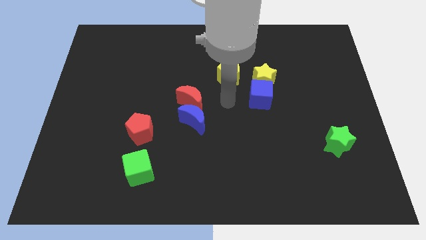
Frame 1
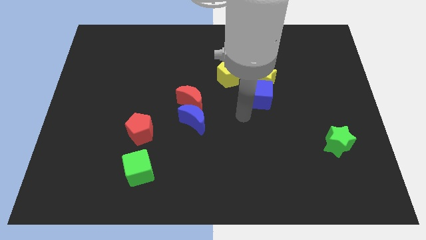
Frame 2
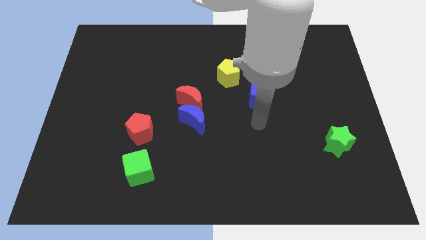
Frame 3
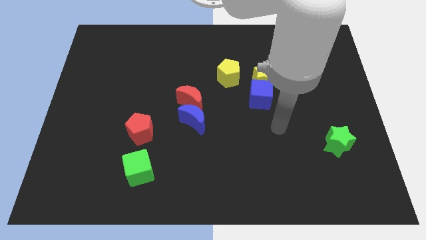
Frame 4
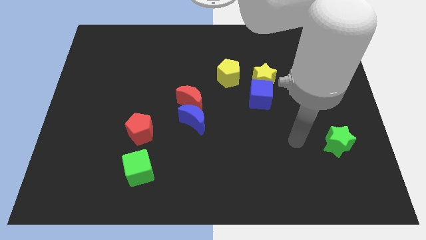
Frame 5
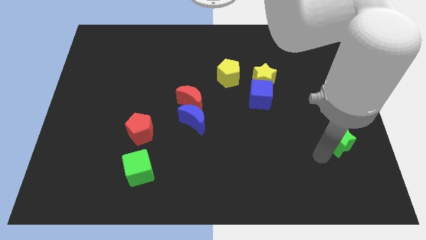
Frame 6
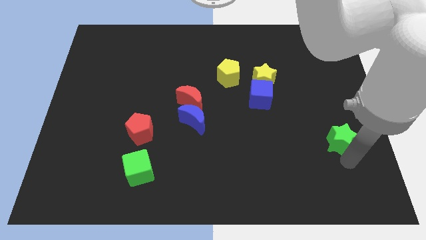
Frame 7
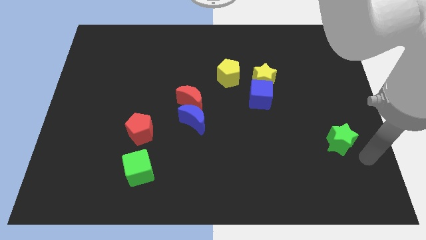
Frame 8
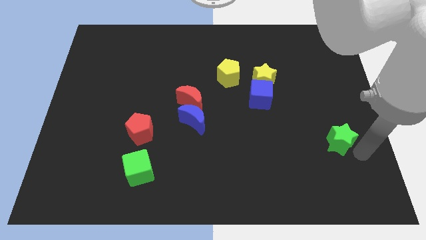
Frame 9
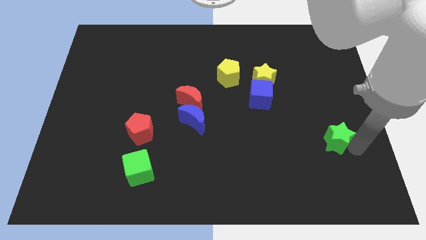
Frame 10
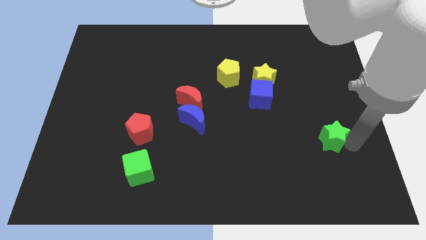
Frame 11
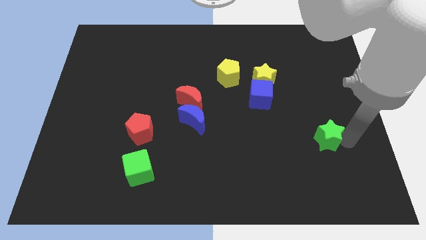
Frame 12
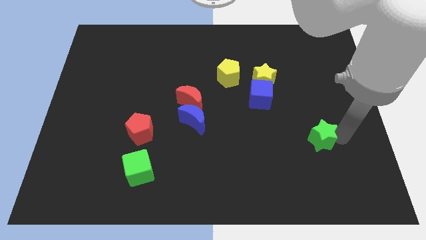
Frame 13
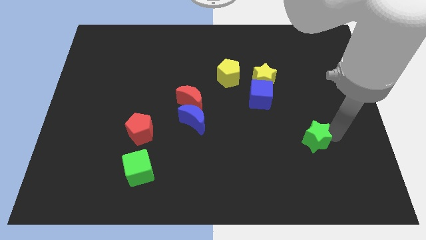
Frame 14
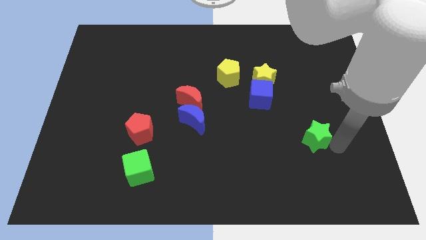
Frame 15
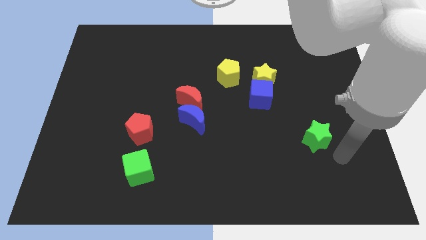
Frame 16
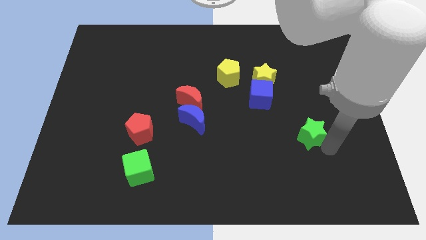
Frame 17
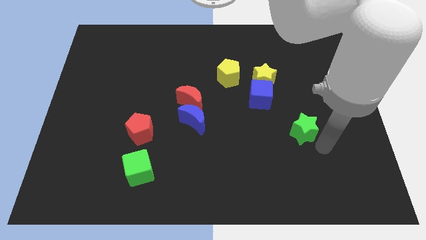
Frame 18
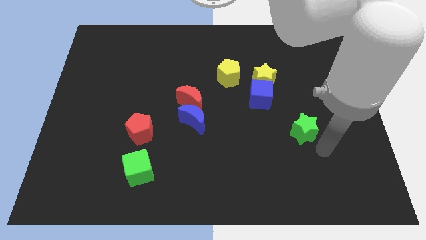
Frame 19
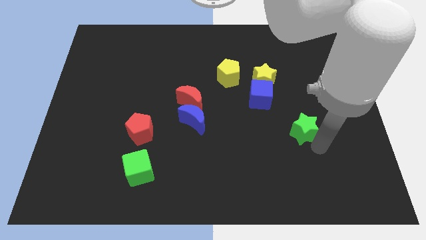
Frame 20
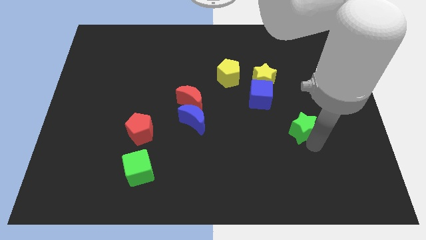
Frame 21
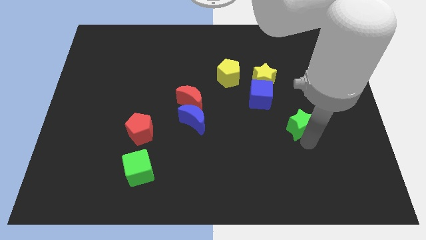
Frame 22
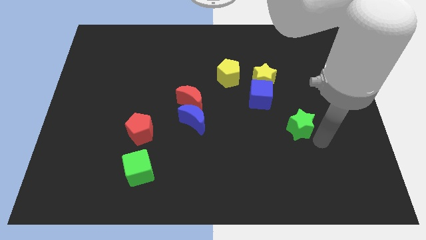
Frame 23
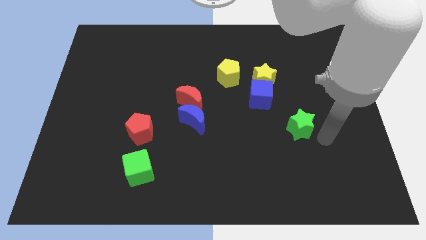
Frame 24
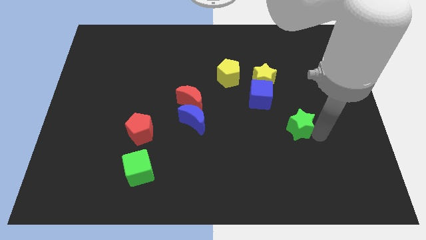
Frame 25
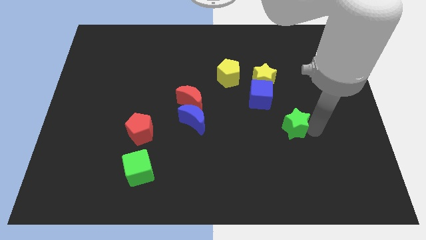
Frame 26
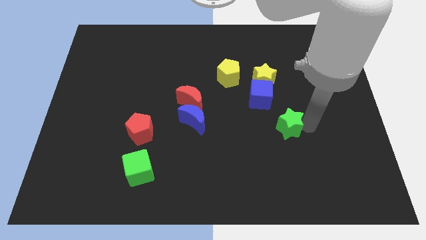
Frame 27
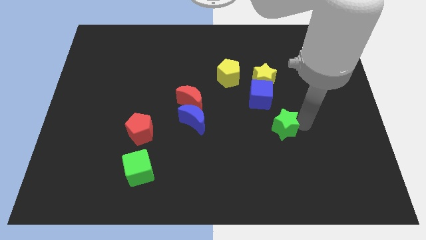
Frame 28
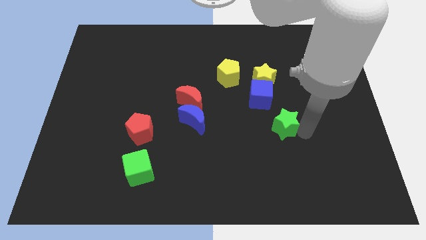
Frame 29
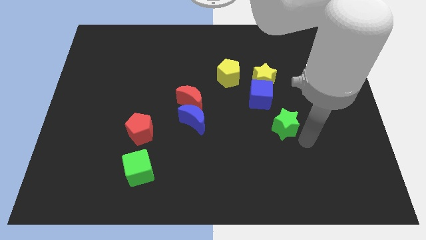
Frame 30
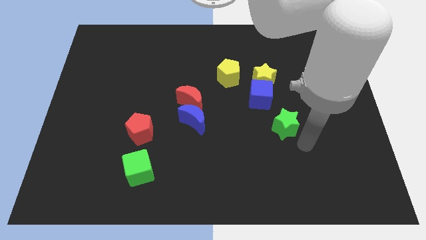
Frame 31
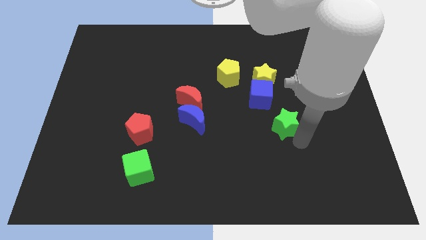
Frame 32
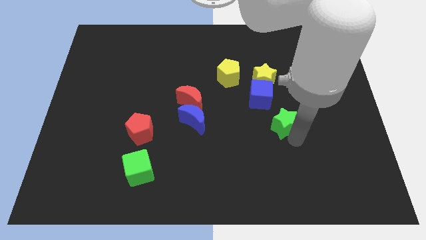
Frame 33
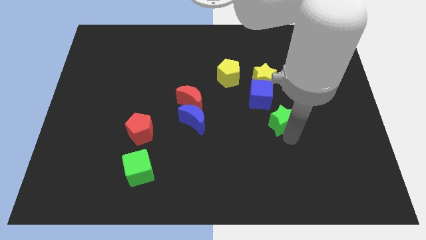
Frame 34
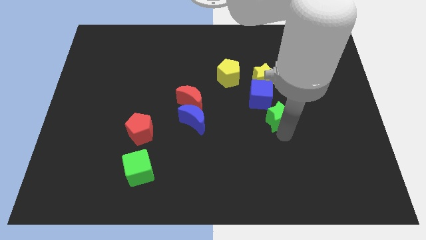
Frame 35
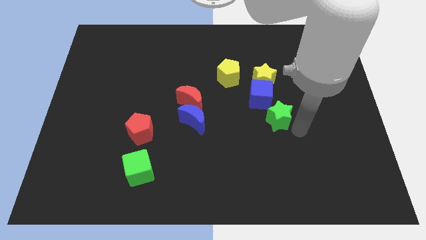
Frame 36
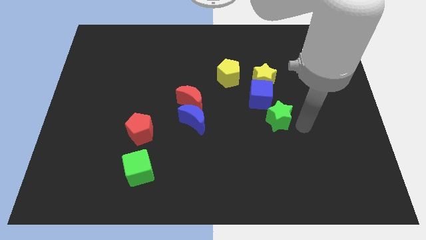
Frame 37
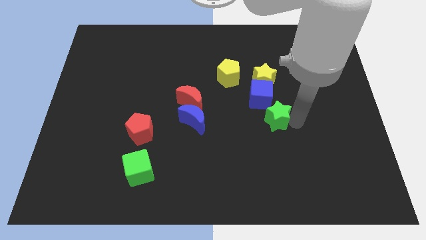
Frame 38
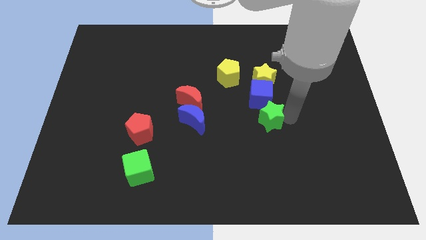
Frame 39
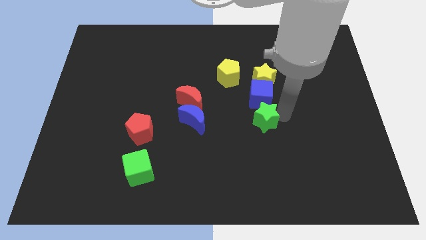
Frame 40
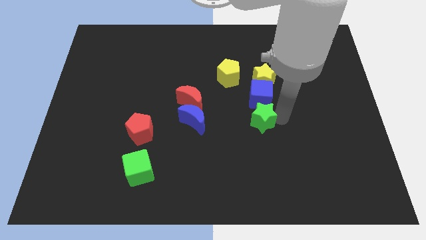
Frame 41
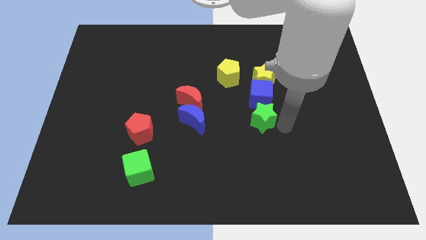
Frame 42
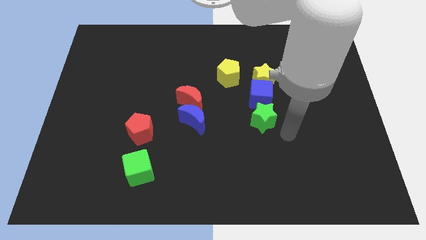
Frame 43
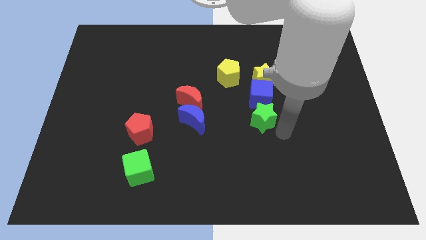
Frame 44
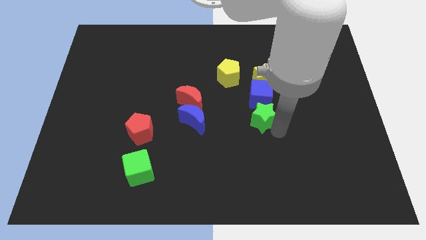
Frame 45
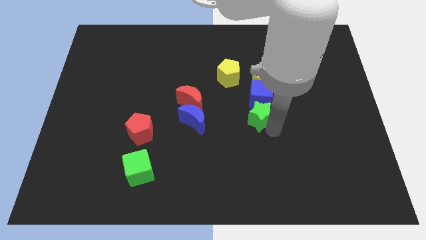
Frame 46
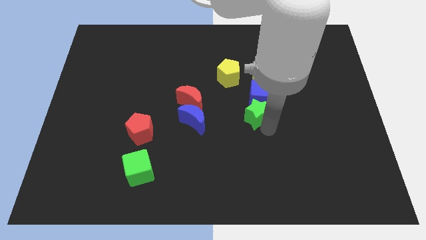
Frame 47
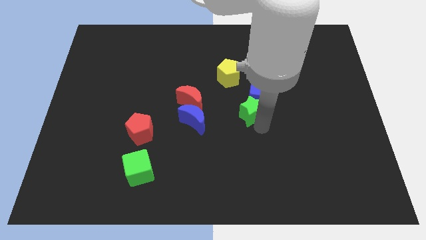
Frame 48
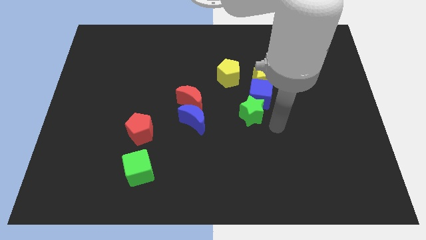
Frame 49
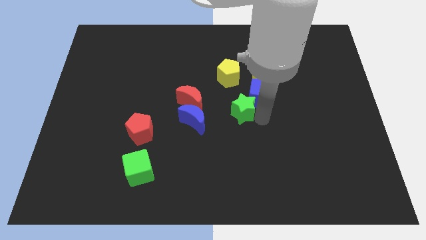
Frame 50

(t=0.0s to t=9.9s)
move the green star just left of the blue cube

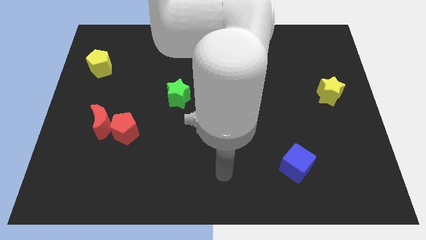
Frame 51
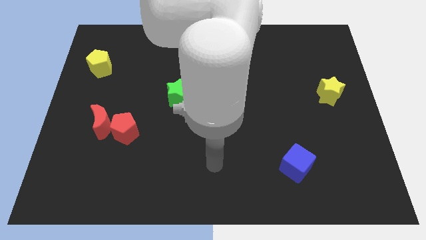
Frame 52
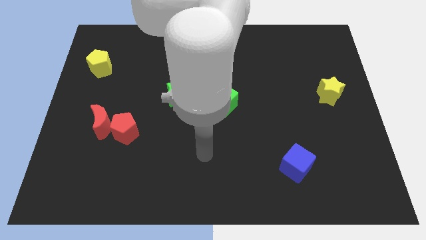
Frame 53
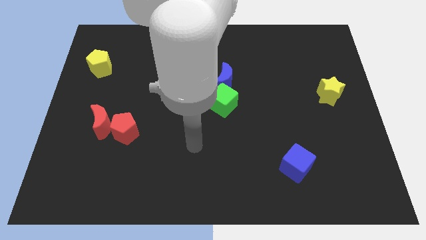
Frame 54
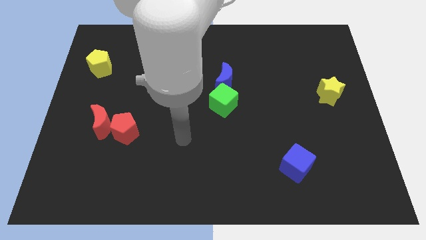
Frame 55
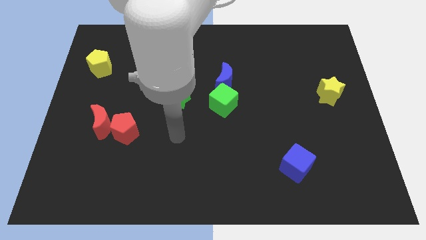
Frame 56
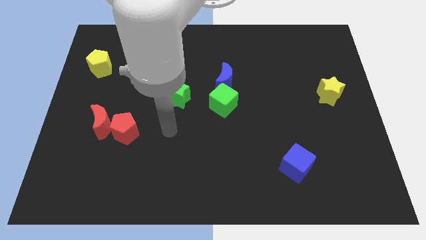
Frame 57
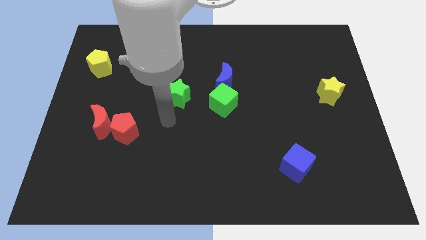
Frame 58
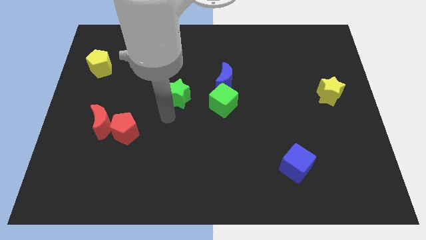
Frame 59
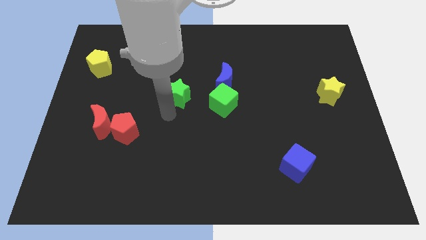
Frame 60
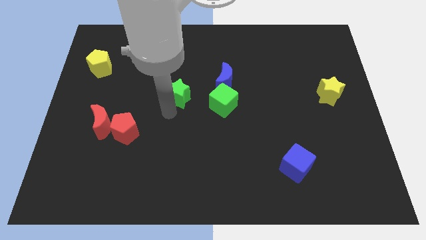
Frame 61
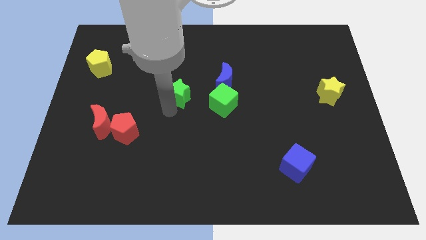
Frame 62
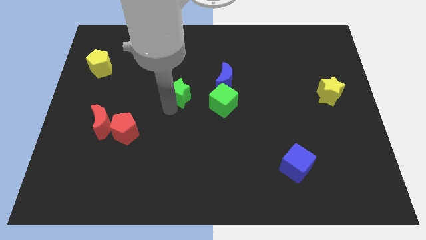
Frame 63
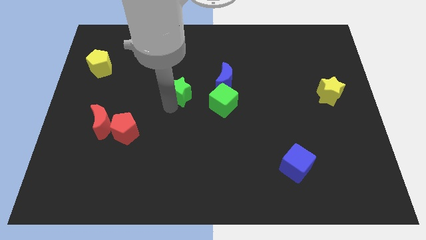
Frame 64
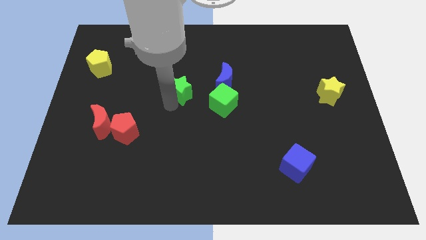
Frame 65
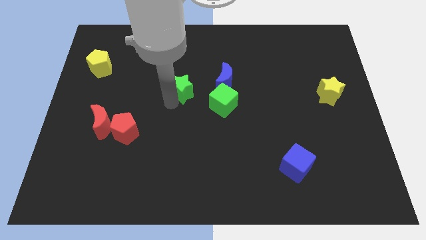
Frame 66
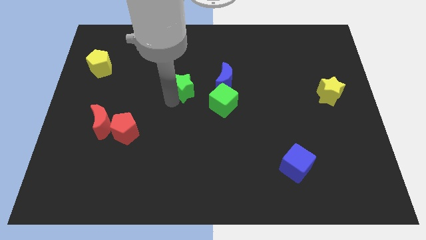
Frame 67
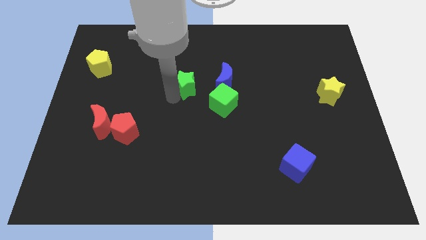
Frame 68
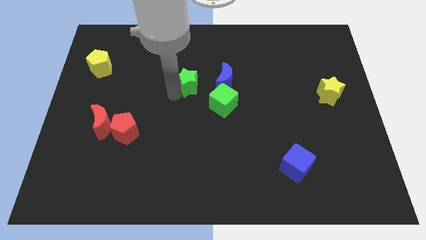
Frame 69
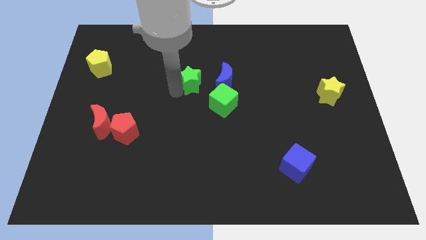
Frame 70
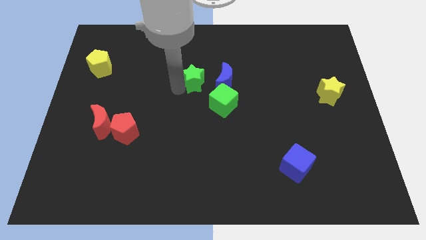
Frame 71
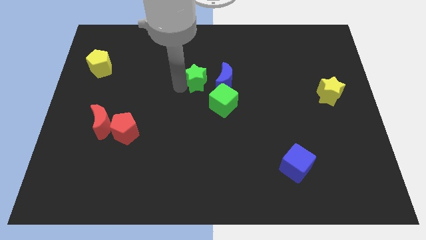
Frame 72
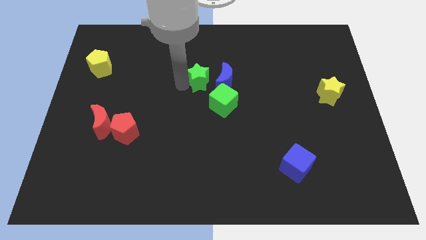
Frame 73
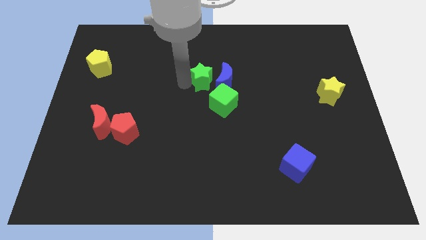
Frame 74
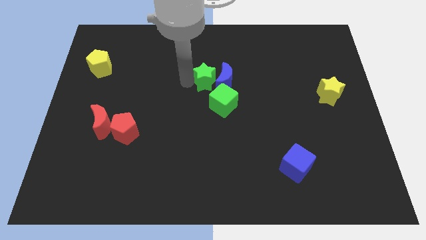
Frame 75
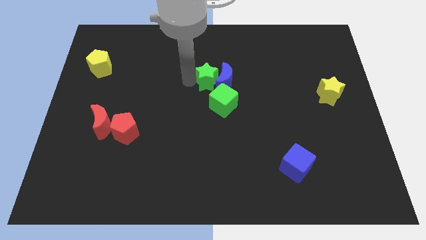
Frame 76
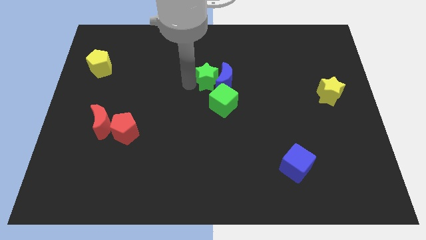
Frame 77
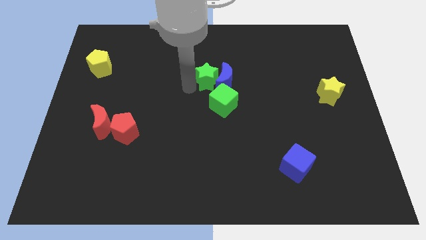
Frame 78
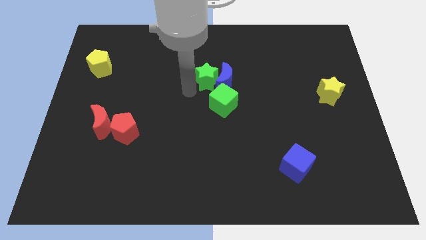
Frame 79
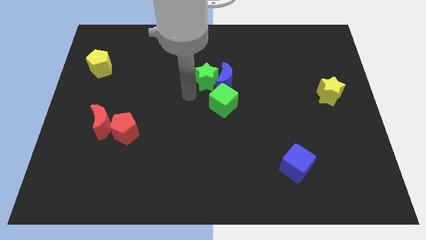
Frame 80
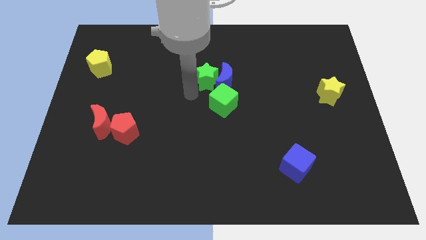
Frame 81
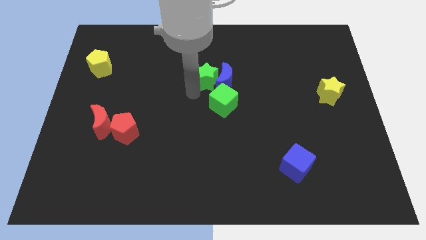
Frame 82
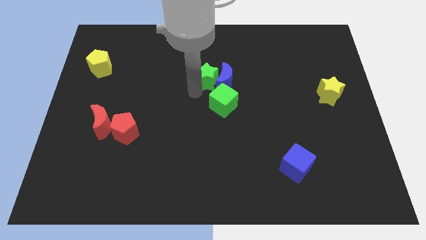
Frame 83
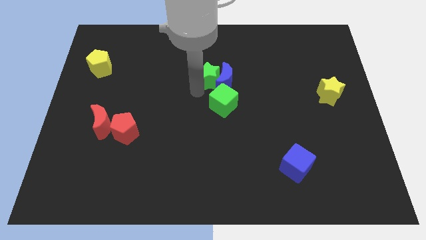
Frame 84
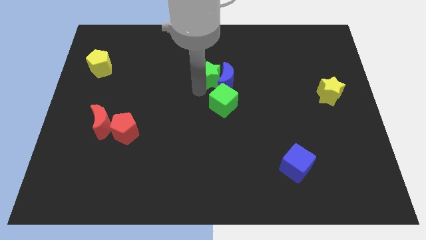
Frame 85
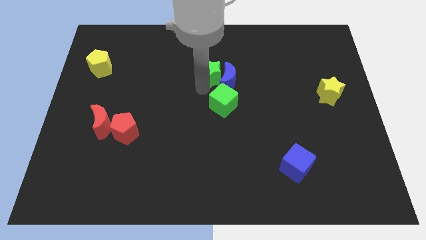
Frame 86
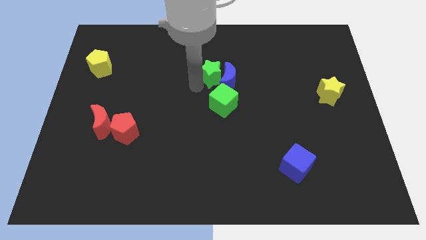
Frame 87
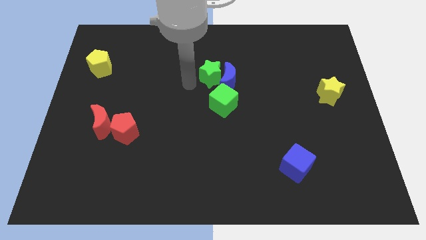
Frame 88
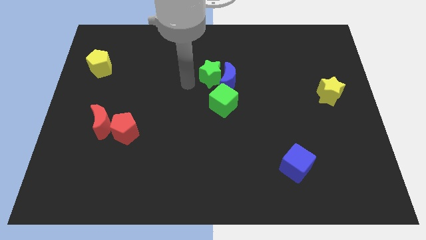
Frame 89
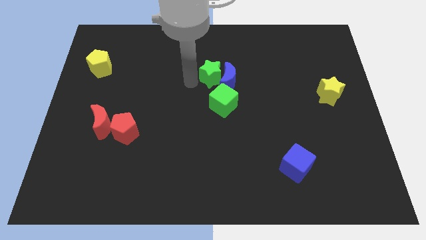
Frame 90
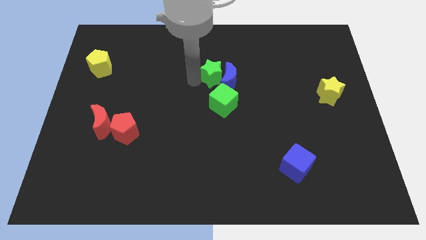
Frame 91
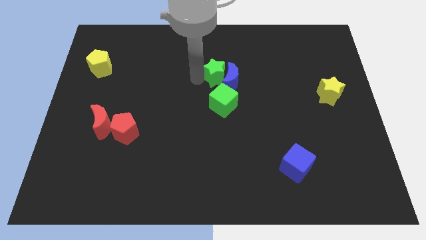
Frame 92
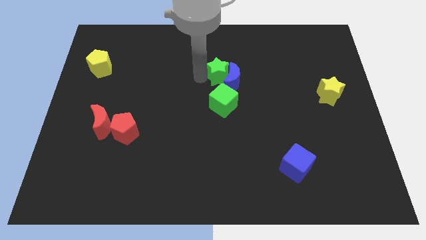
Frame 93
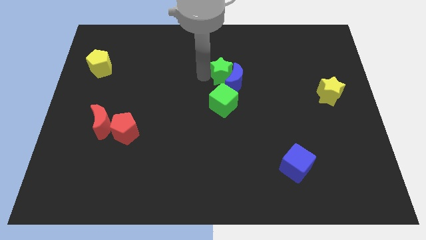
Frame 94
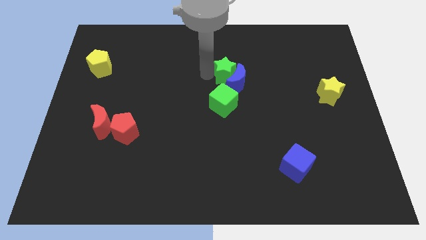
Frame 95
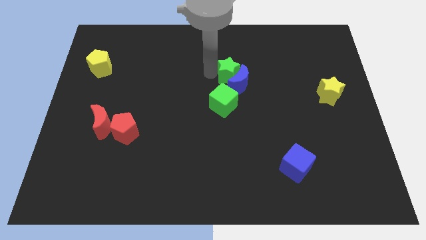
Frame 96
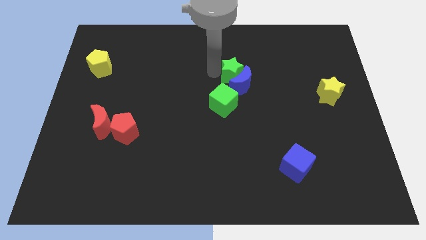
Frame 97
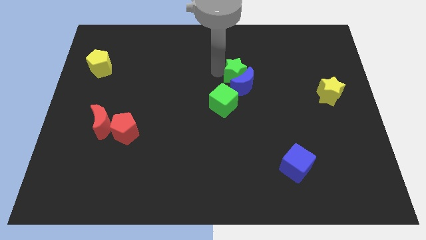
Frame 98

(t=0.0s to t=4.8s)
push the green star to the top right of the blue moon
